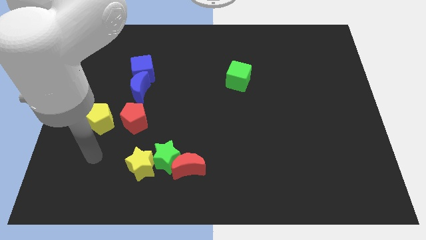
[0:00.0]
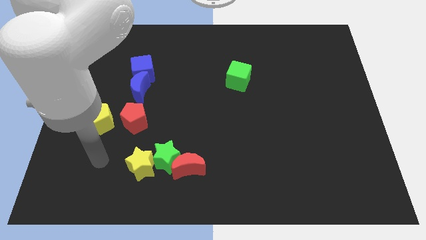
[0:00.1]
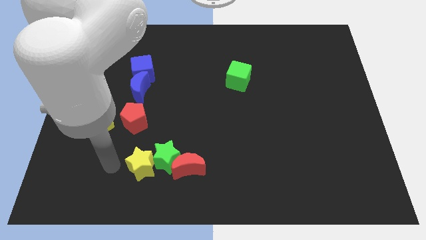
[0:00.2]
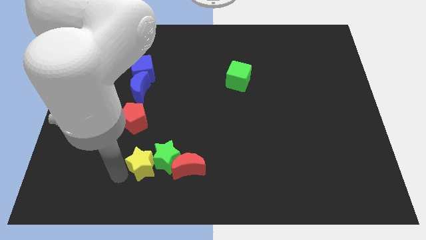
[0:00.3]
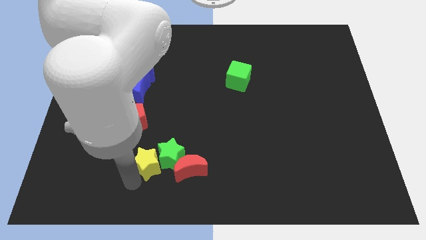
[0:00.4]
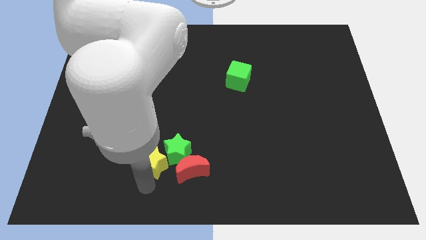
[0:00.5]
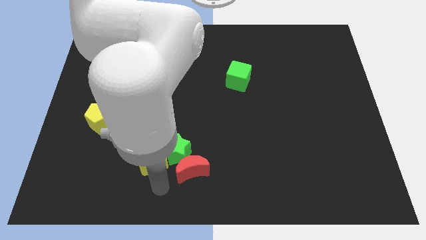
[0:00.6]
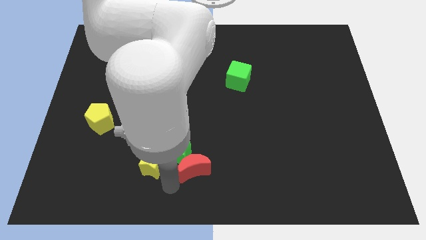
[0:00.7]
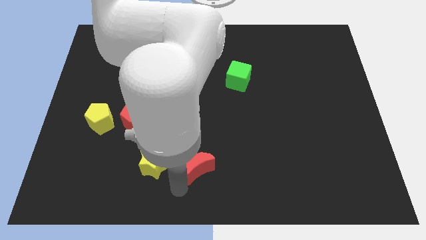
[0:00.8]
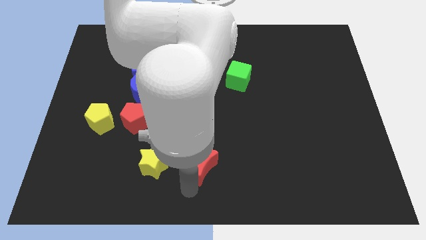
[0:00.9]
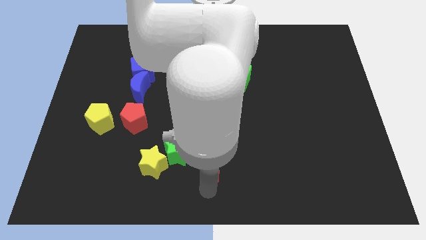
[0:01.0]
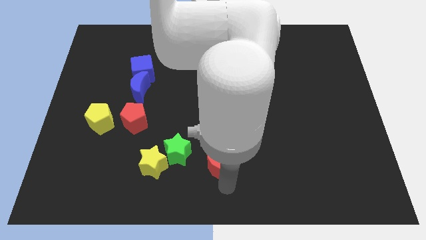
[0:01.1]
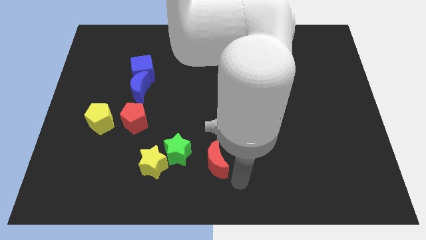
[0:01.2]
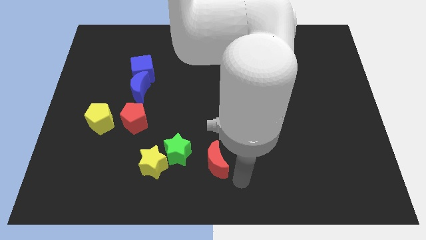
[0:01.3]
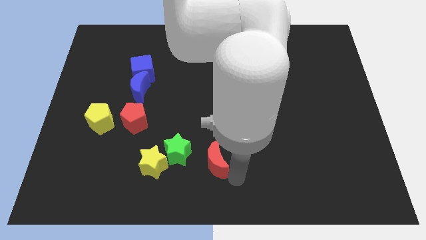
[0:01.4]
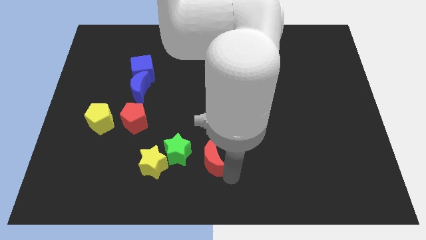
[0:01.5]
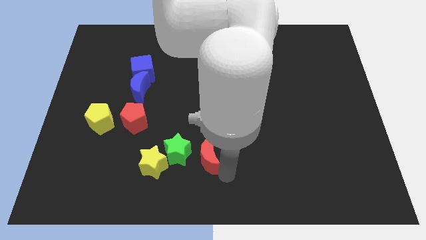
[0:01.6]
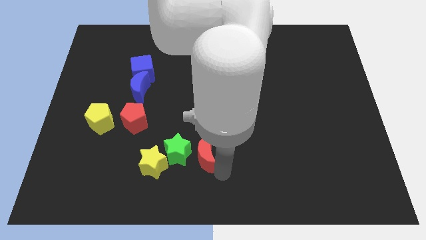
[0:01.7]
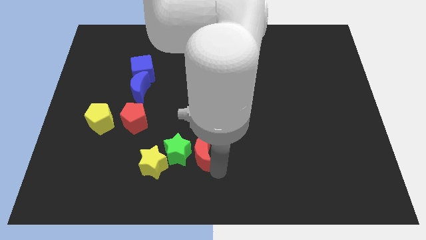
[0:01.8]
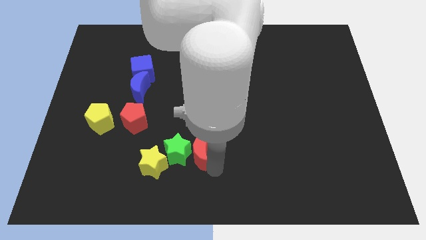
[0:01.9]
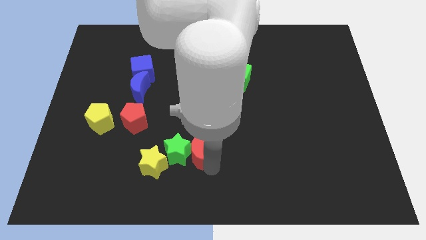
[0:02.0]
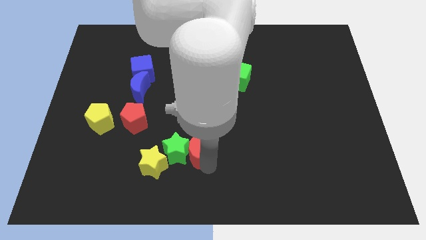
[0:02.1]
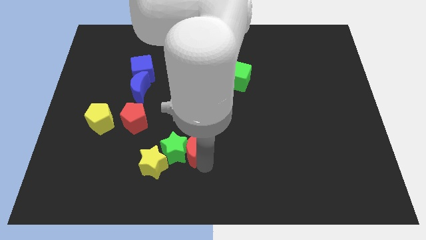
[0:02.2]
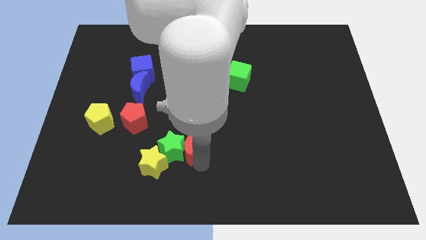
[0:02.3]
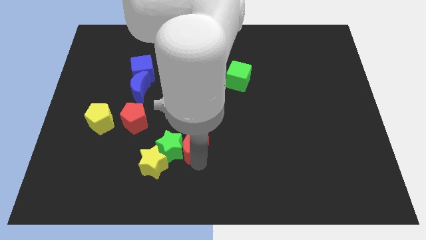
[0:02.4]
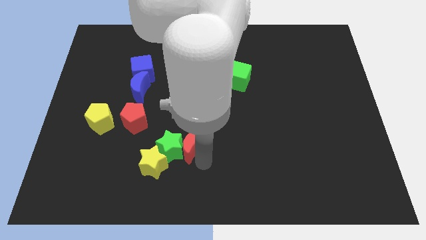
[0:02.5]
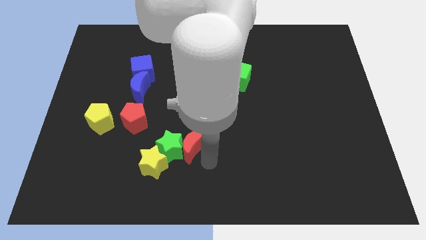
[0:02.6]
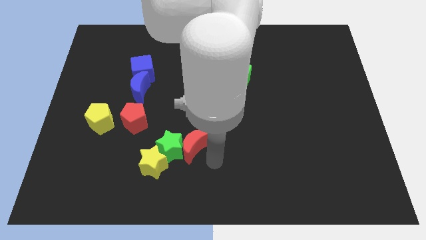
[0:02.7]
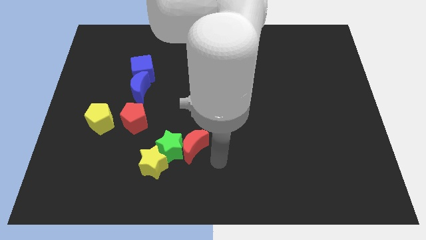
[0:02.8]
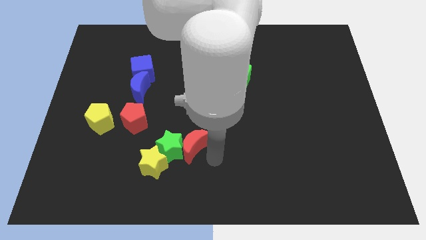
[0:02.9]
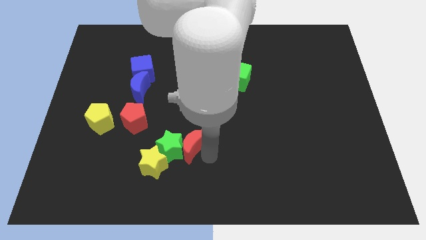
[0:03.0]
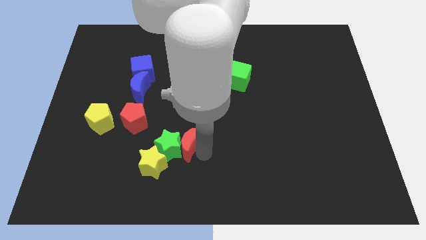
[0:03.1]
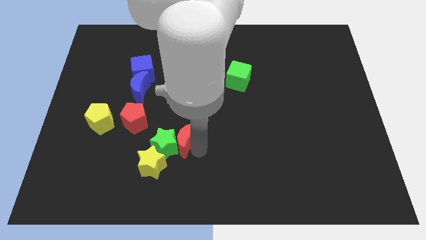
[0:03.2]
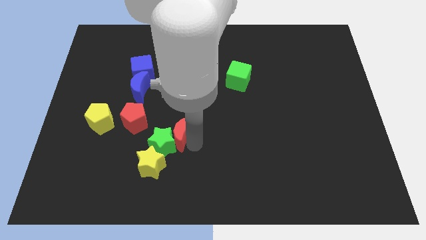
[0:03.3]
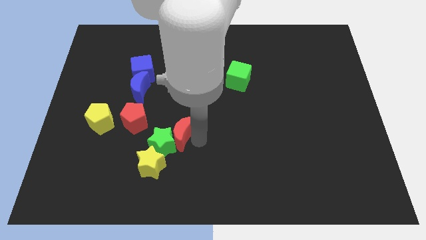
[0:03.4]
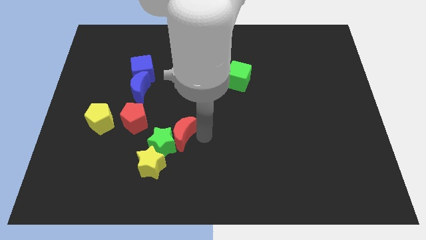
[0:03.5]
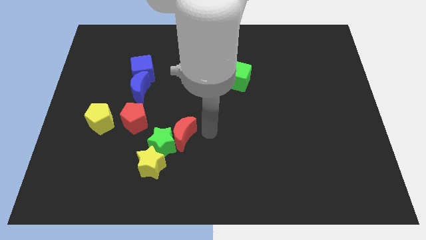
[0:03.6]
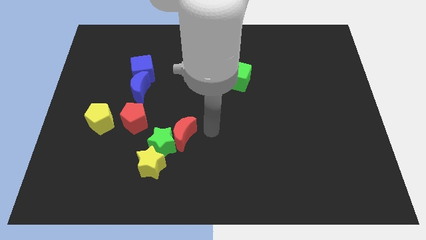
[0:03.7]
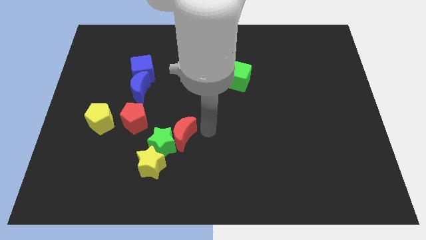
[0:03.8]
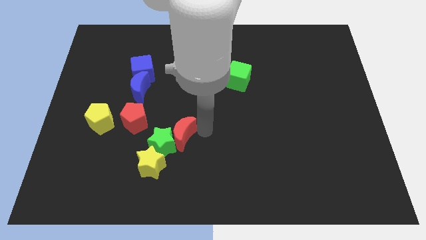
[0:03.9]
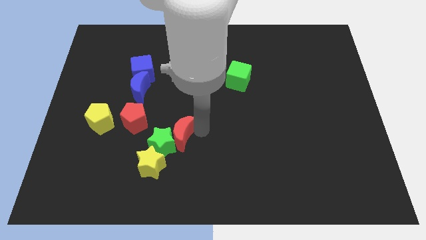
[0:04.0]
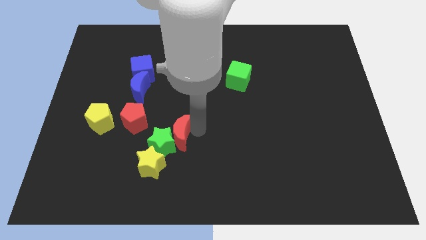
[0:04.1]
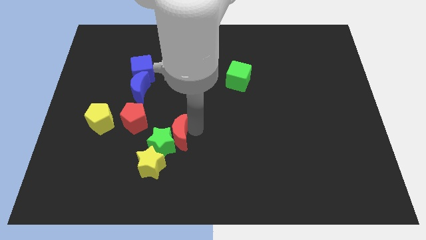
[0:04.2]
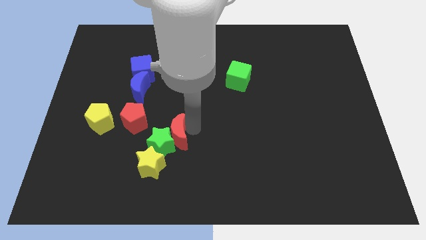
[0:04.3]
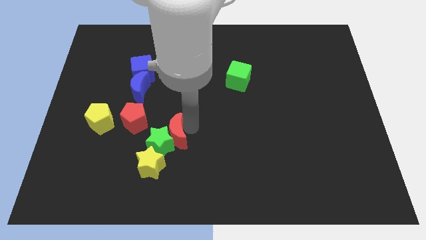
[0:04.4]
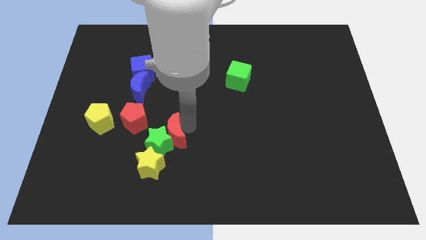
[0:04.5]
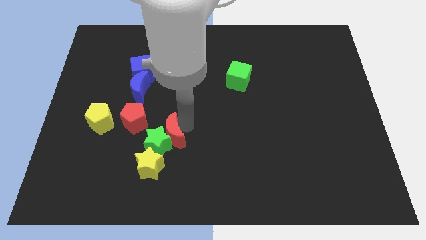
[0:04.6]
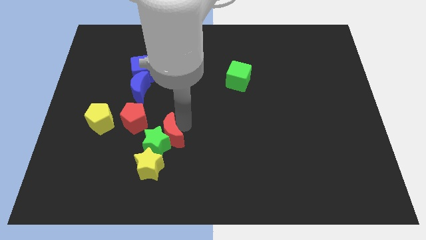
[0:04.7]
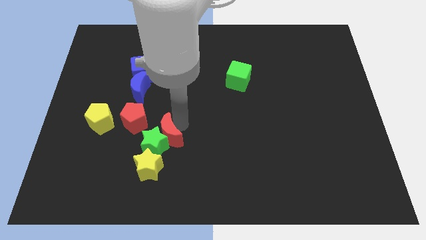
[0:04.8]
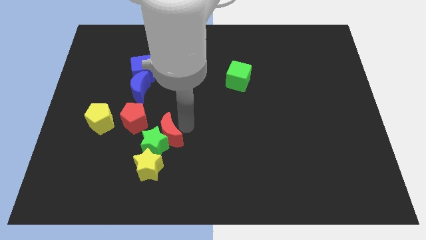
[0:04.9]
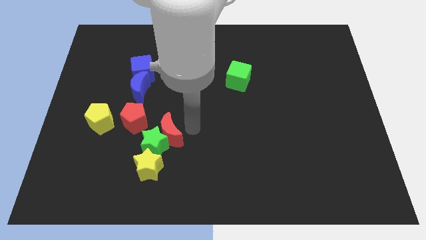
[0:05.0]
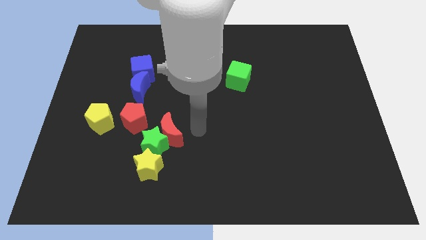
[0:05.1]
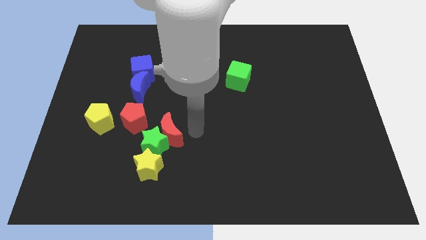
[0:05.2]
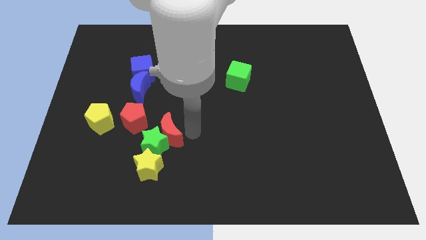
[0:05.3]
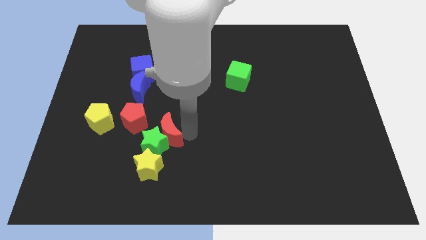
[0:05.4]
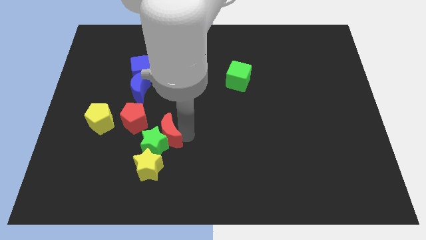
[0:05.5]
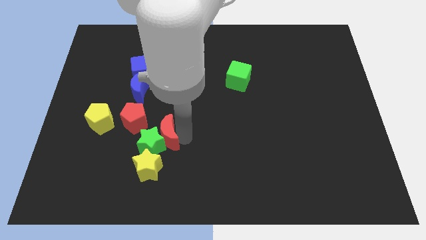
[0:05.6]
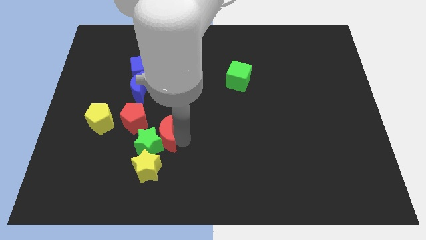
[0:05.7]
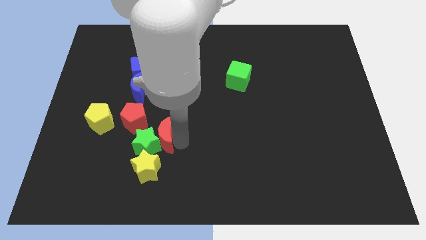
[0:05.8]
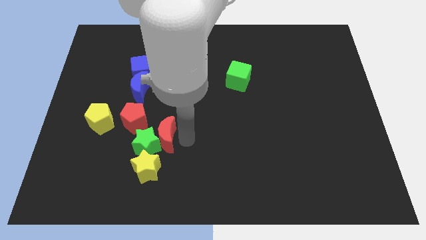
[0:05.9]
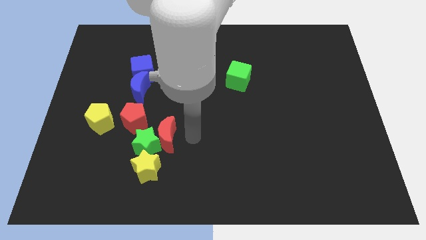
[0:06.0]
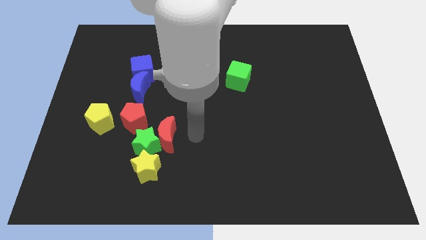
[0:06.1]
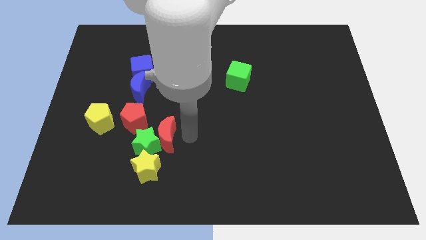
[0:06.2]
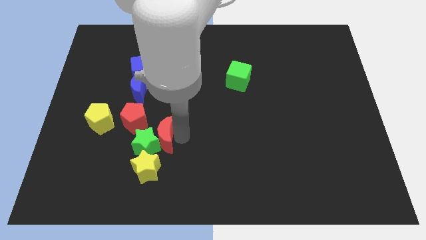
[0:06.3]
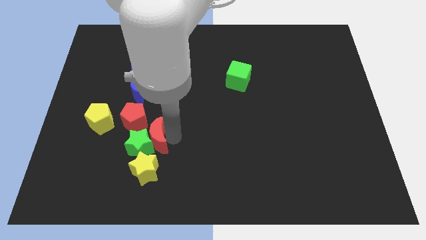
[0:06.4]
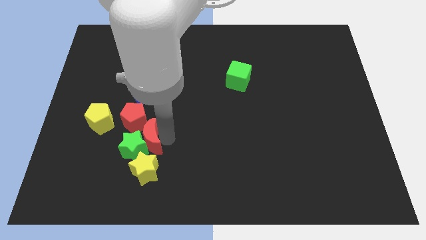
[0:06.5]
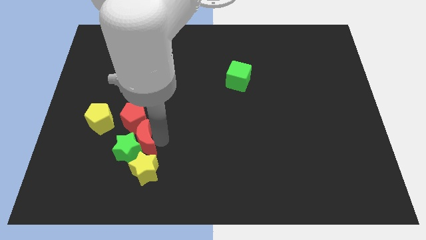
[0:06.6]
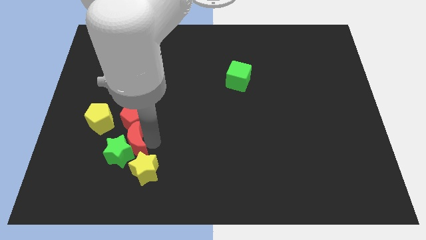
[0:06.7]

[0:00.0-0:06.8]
move the red moon to the bottom left of the red pentagon

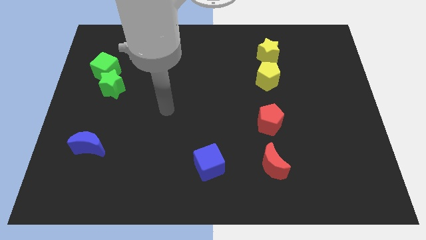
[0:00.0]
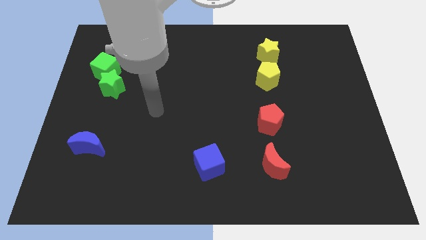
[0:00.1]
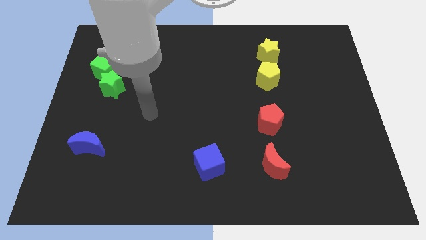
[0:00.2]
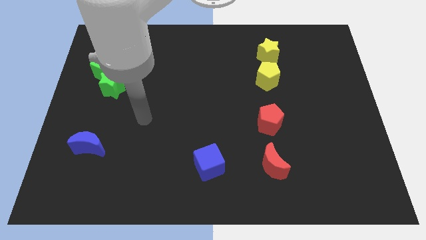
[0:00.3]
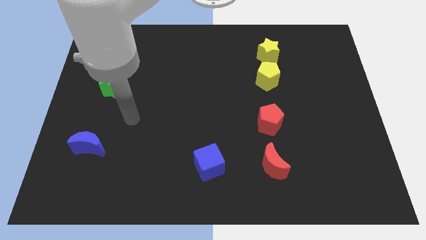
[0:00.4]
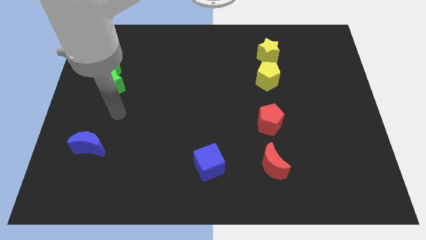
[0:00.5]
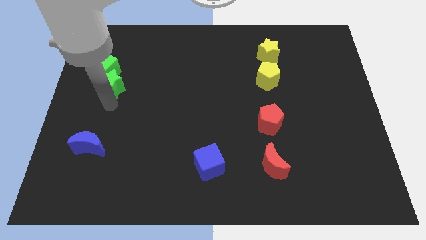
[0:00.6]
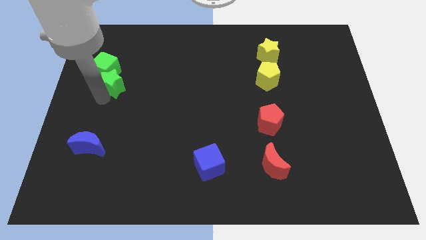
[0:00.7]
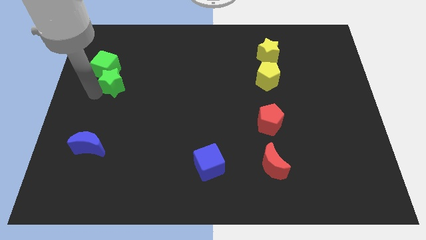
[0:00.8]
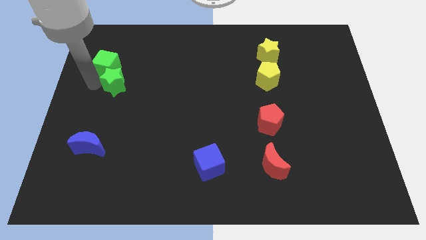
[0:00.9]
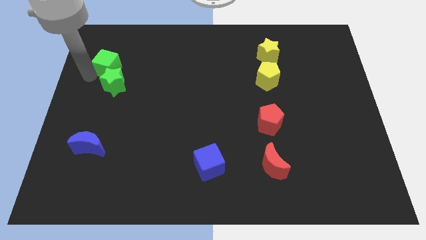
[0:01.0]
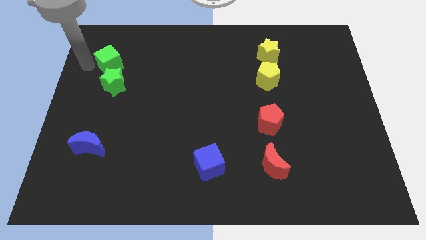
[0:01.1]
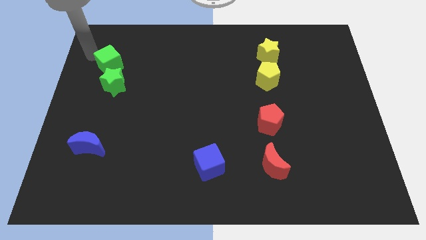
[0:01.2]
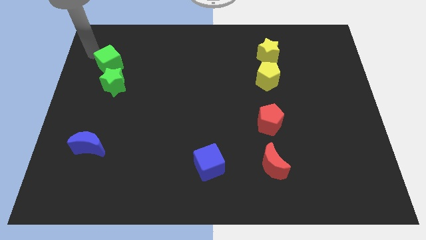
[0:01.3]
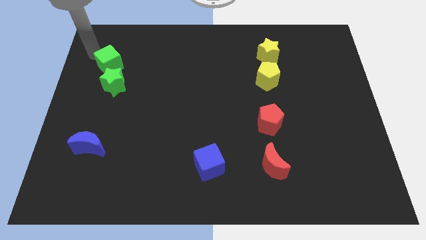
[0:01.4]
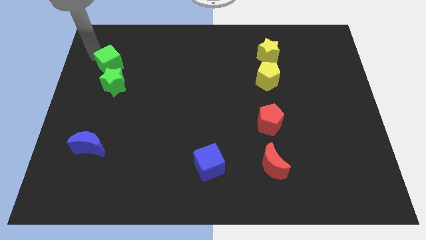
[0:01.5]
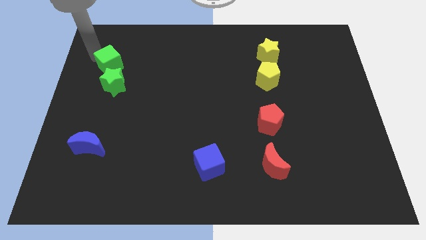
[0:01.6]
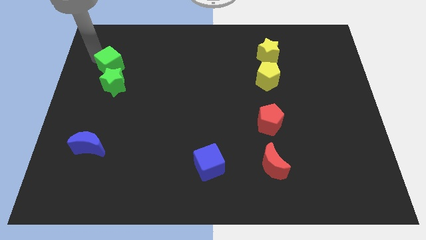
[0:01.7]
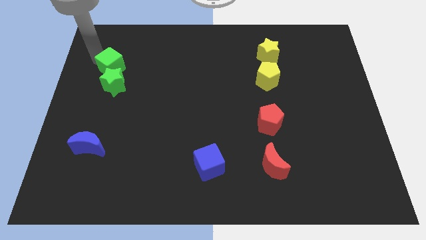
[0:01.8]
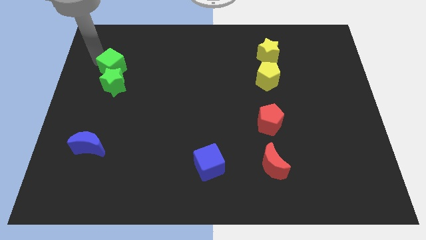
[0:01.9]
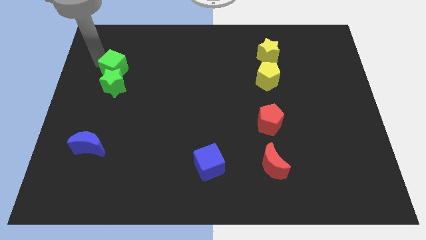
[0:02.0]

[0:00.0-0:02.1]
push the green cube to the top right side of the green star
